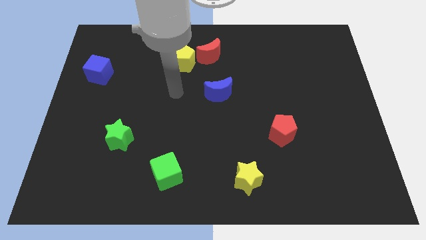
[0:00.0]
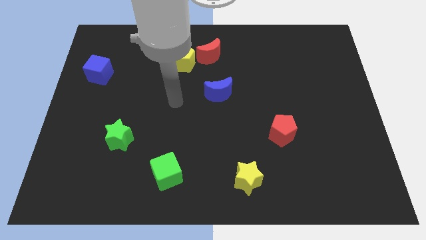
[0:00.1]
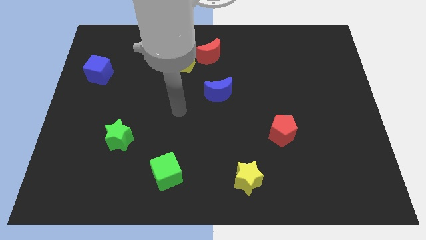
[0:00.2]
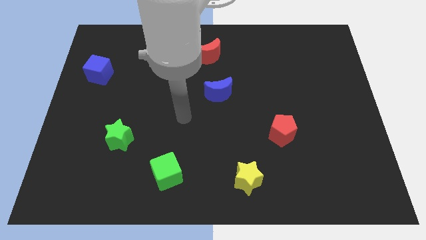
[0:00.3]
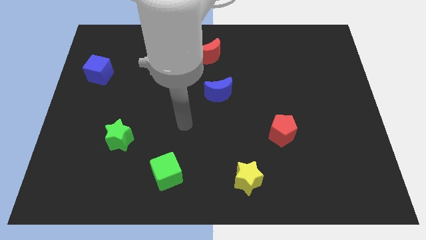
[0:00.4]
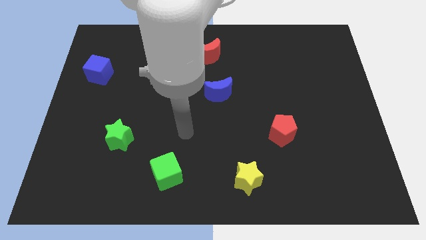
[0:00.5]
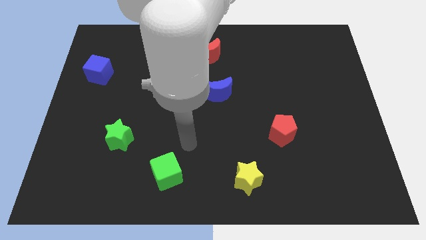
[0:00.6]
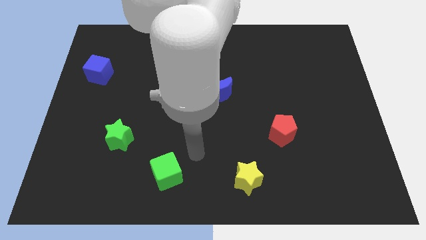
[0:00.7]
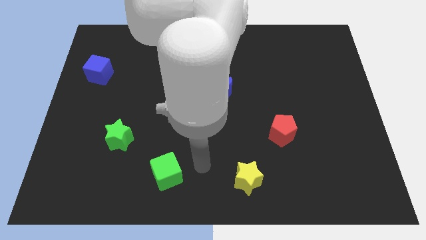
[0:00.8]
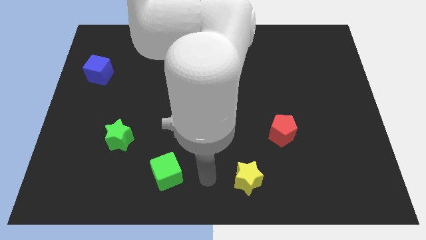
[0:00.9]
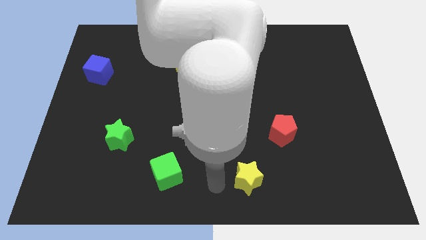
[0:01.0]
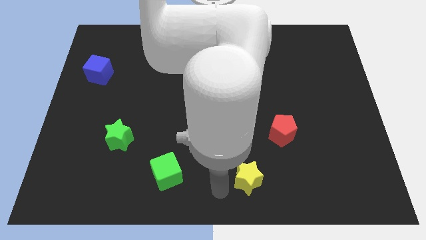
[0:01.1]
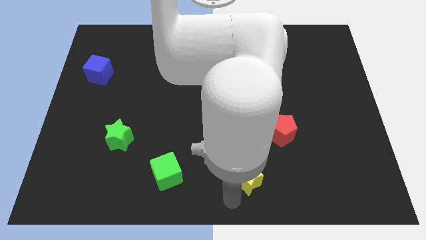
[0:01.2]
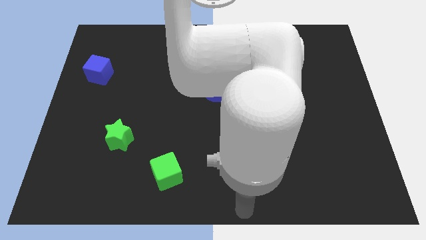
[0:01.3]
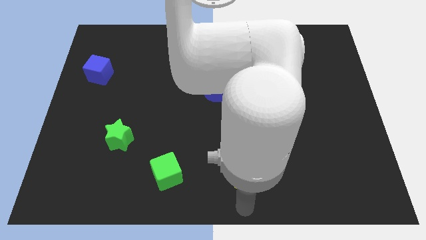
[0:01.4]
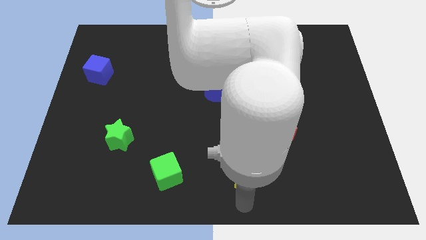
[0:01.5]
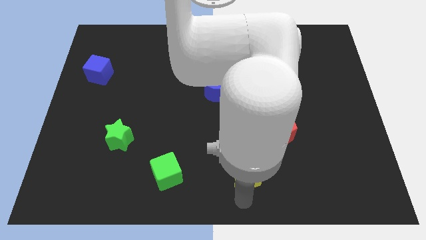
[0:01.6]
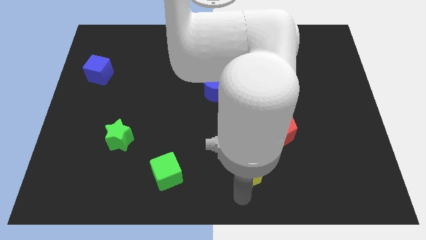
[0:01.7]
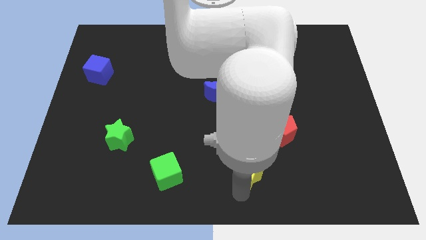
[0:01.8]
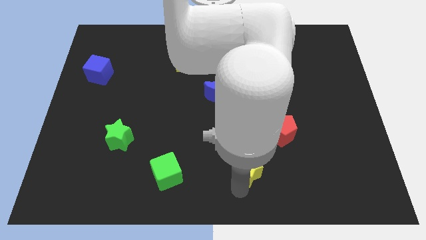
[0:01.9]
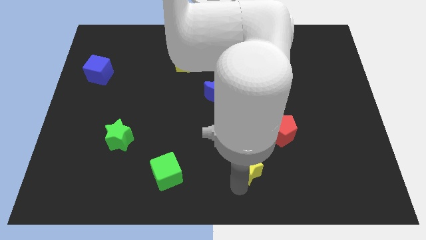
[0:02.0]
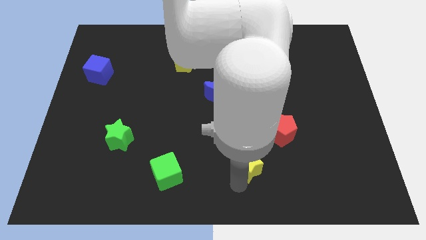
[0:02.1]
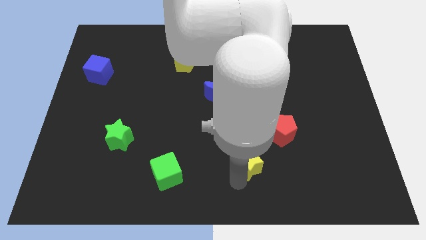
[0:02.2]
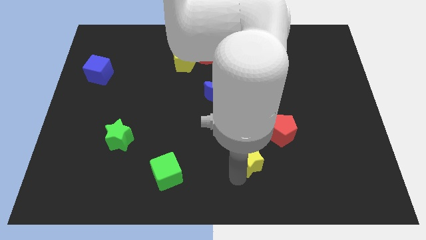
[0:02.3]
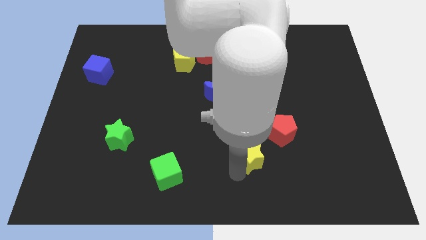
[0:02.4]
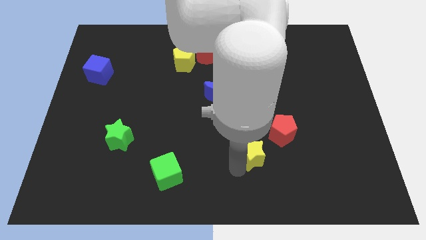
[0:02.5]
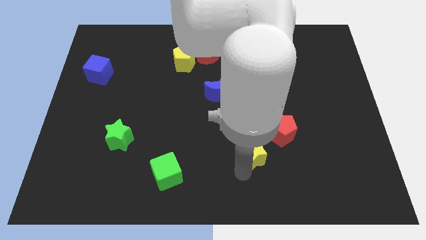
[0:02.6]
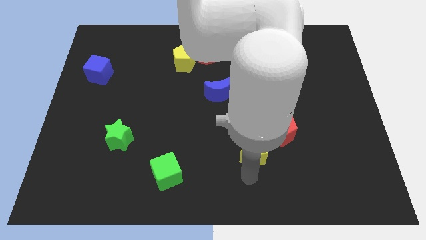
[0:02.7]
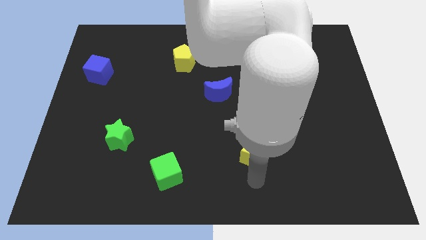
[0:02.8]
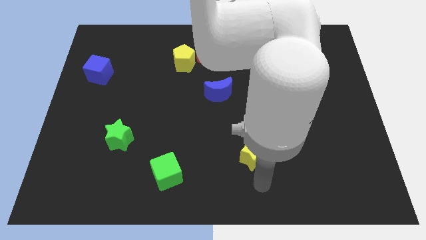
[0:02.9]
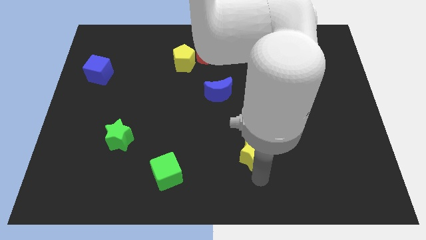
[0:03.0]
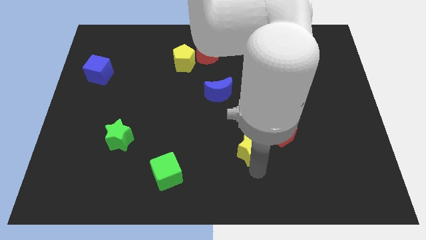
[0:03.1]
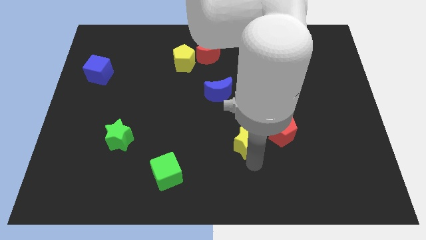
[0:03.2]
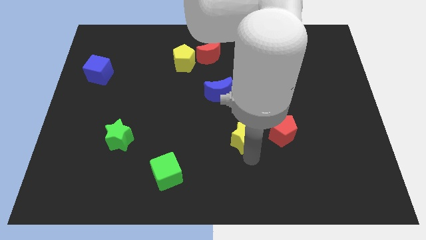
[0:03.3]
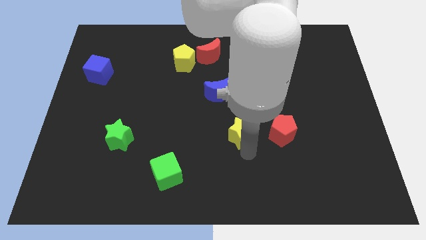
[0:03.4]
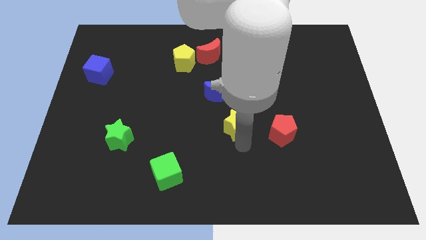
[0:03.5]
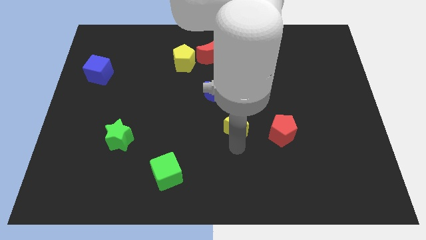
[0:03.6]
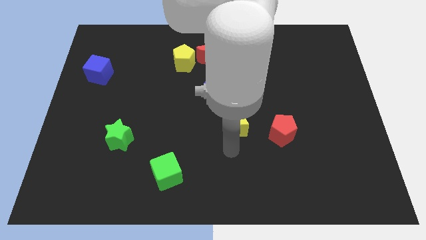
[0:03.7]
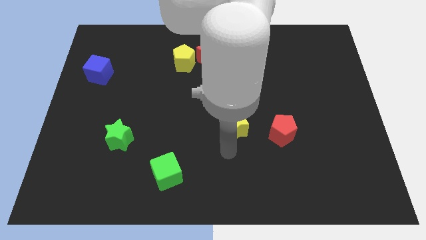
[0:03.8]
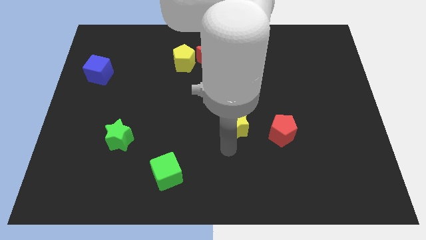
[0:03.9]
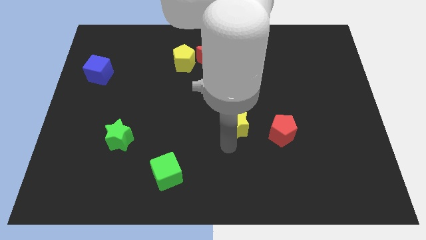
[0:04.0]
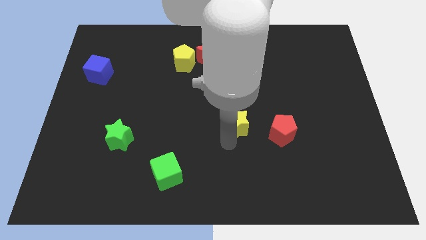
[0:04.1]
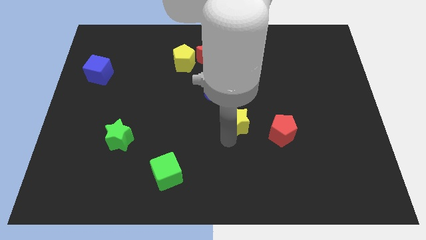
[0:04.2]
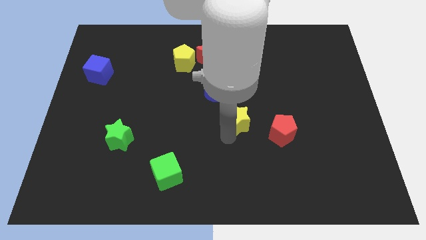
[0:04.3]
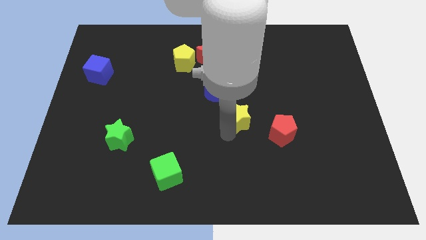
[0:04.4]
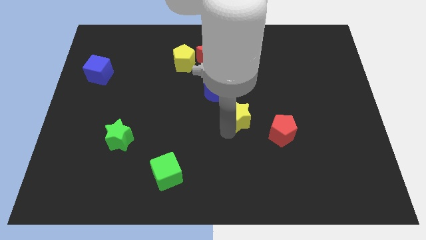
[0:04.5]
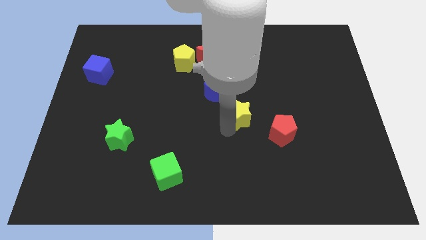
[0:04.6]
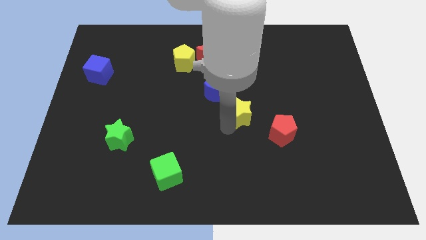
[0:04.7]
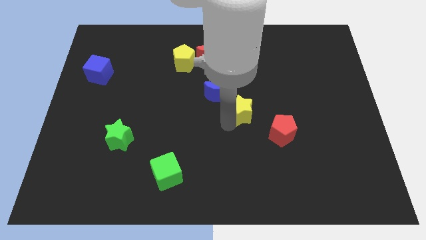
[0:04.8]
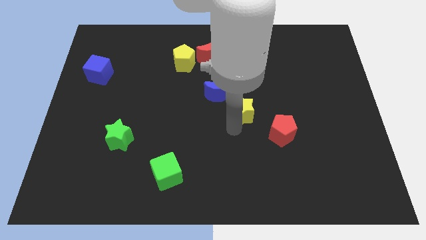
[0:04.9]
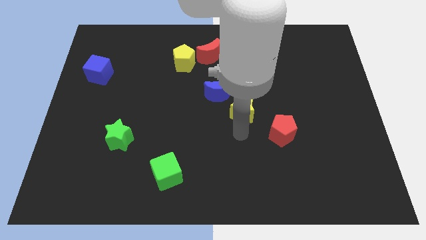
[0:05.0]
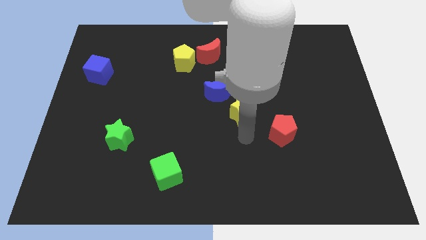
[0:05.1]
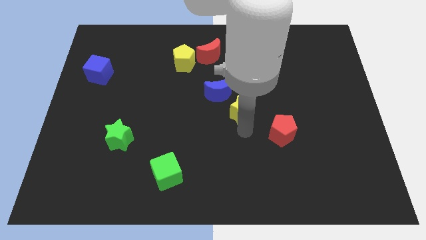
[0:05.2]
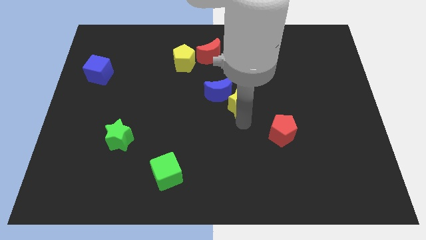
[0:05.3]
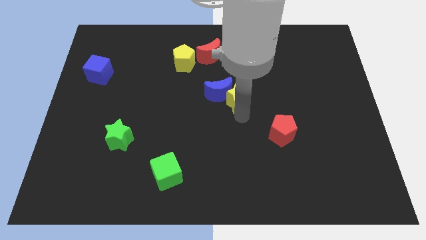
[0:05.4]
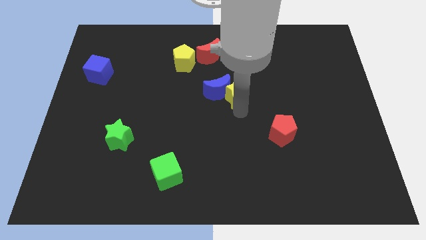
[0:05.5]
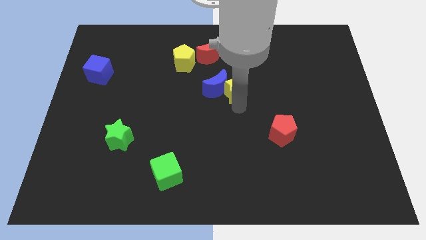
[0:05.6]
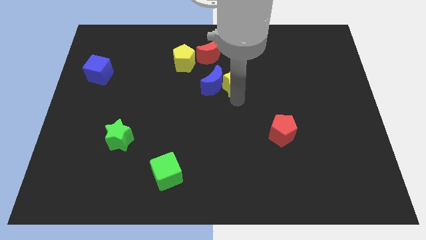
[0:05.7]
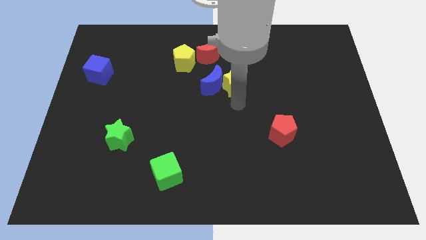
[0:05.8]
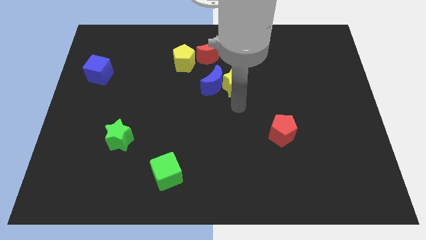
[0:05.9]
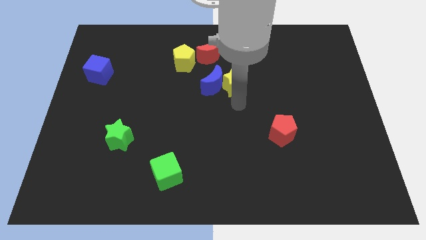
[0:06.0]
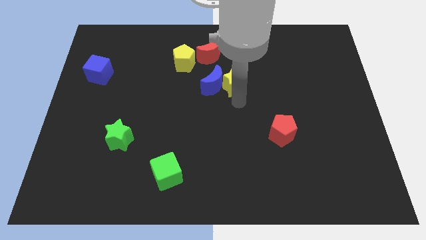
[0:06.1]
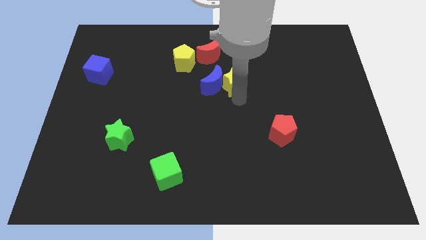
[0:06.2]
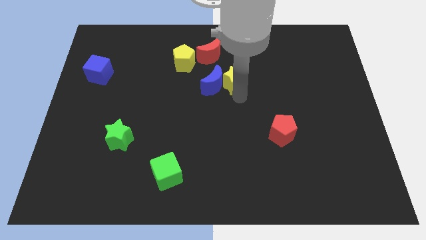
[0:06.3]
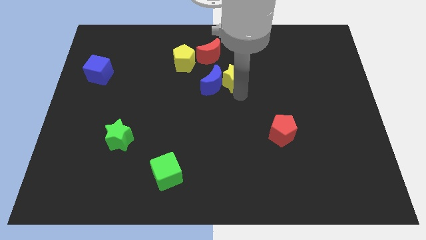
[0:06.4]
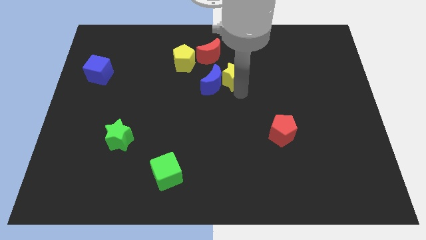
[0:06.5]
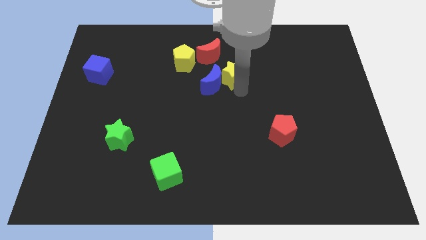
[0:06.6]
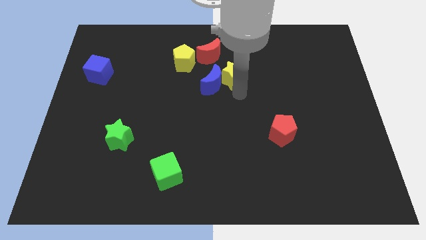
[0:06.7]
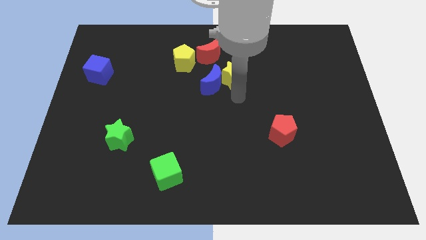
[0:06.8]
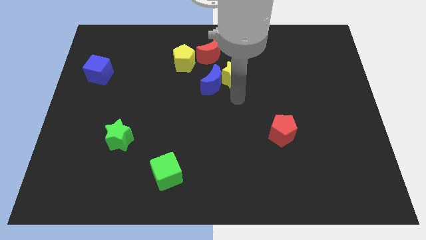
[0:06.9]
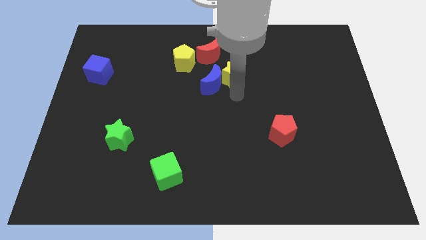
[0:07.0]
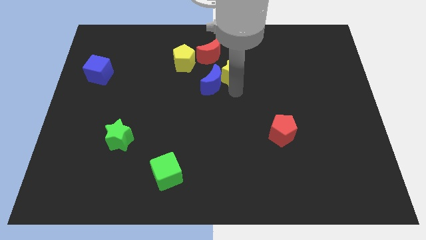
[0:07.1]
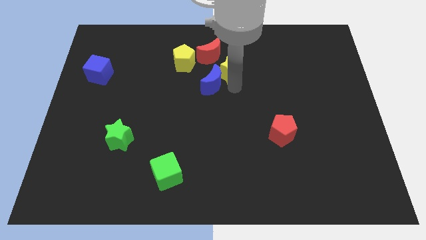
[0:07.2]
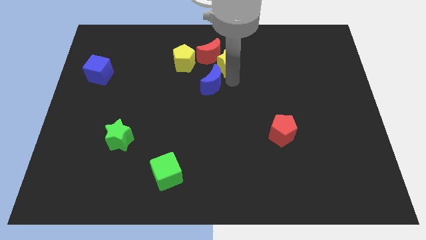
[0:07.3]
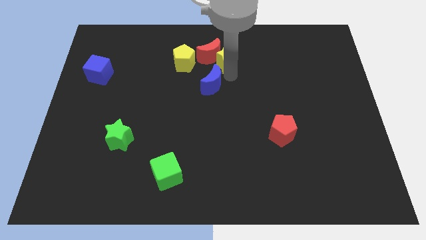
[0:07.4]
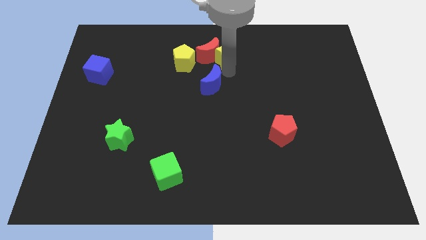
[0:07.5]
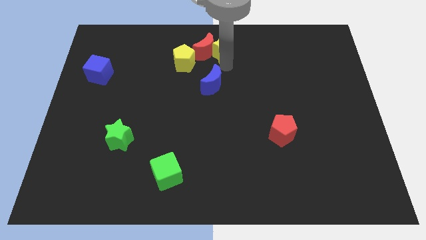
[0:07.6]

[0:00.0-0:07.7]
slide the yellow star to the top side
